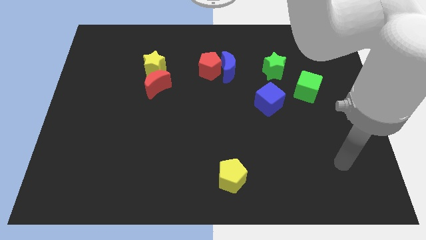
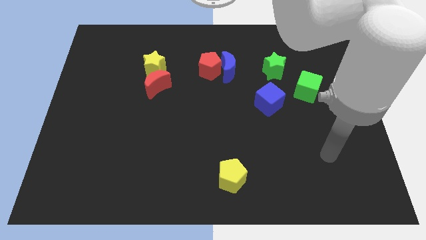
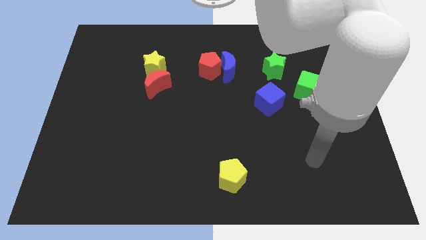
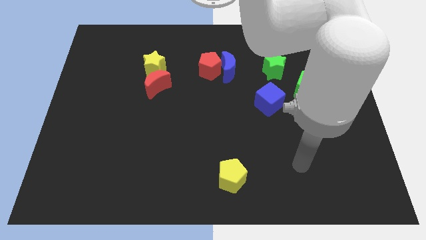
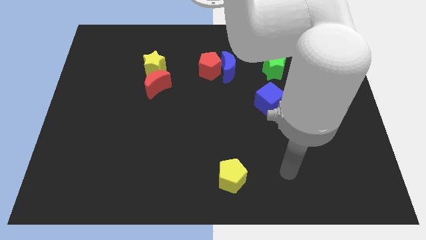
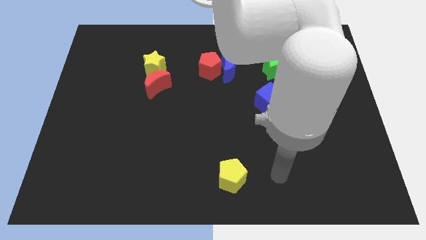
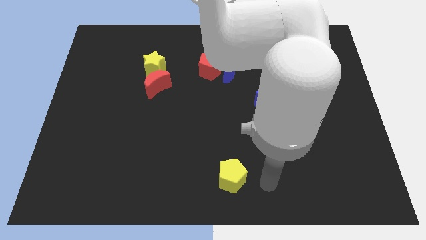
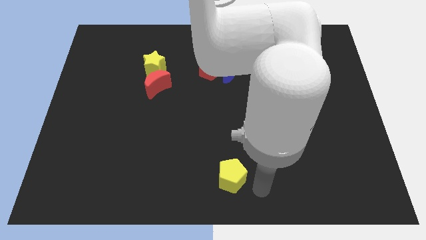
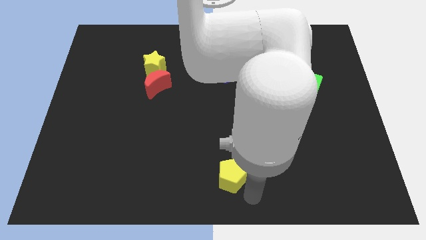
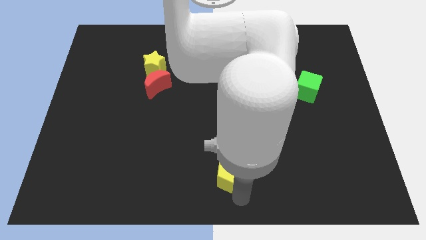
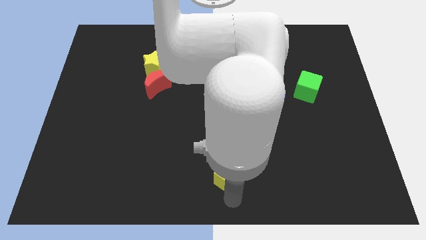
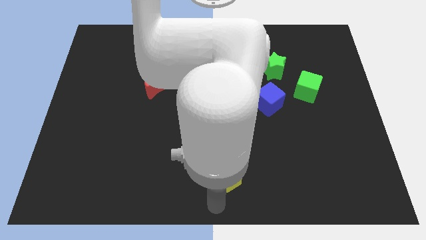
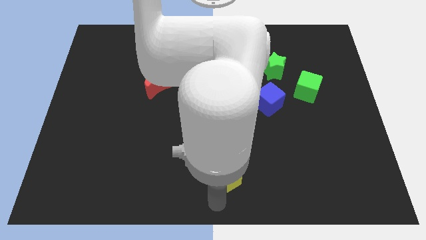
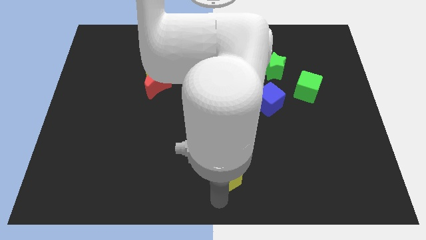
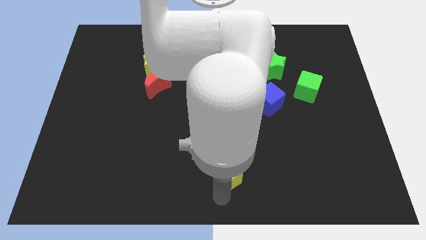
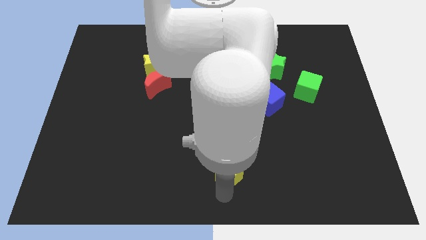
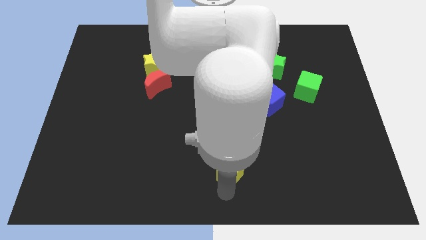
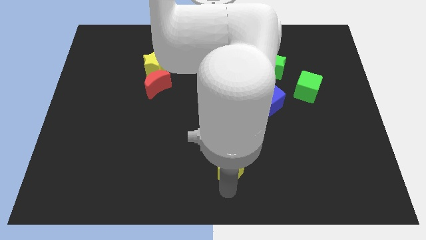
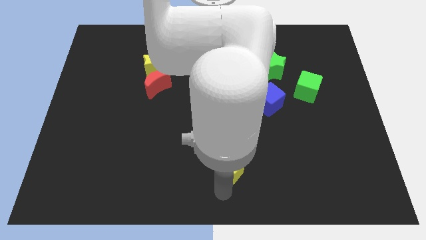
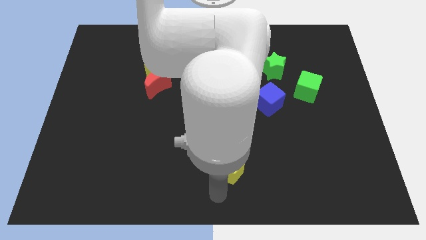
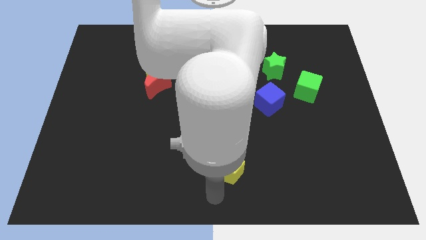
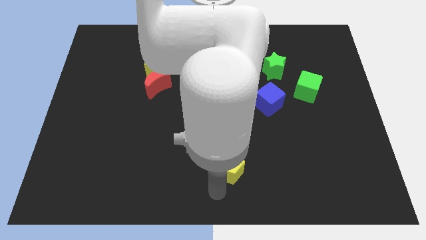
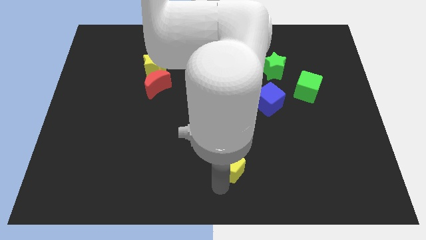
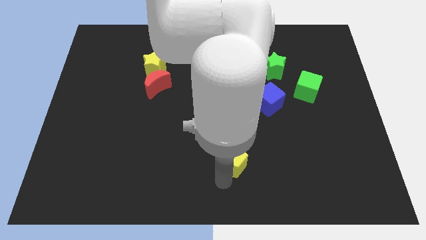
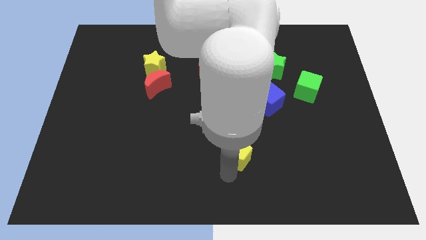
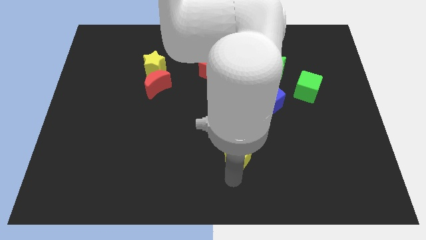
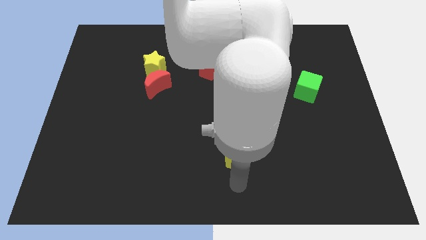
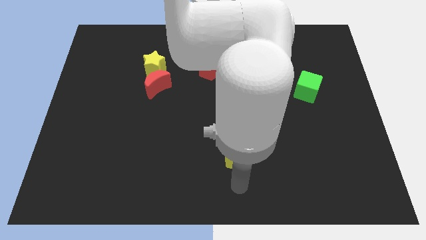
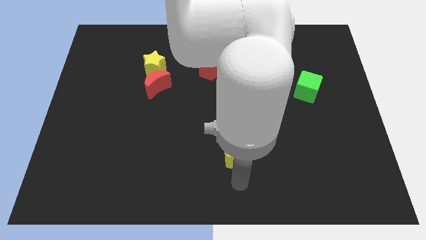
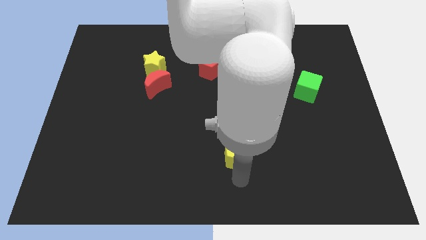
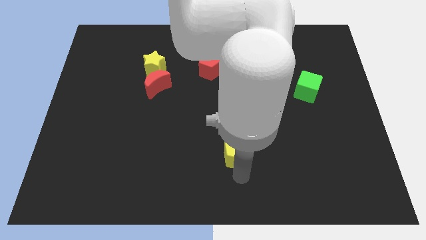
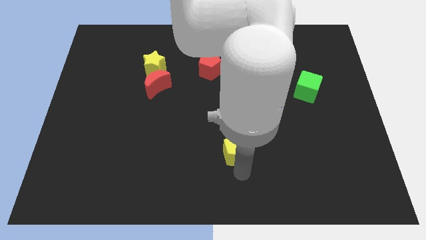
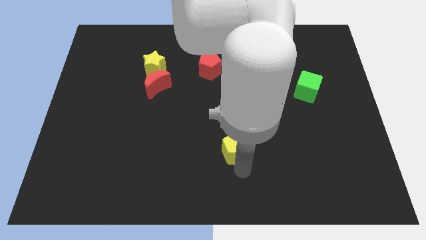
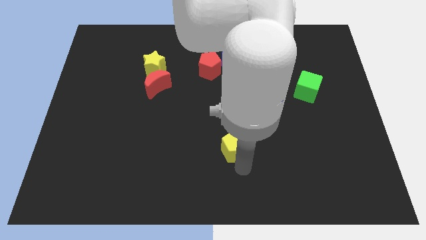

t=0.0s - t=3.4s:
slide the yellow pentagon up a bit

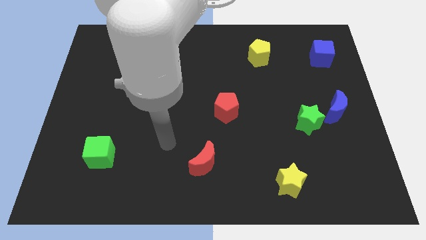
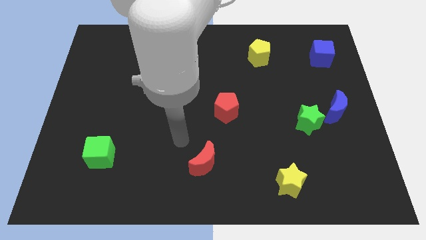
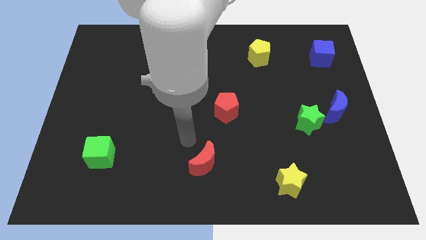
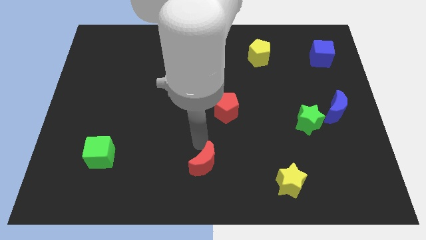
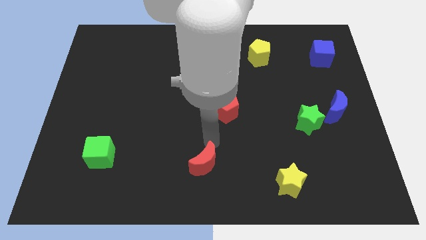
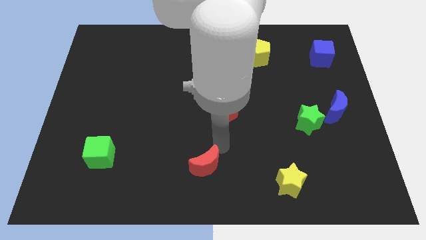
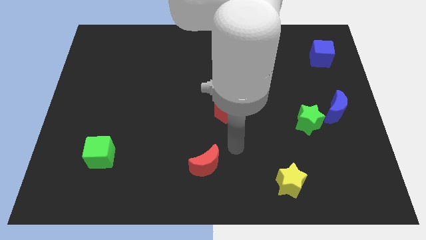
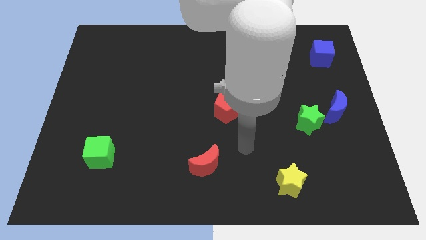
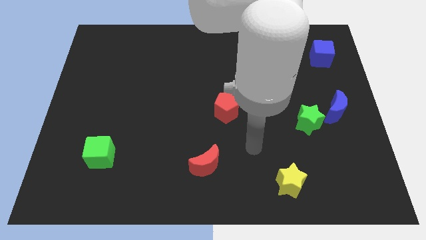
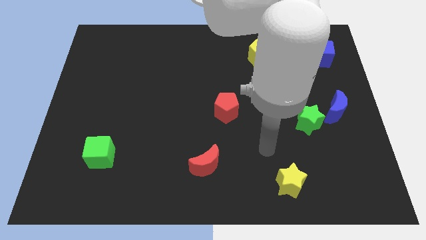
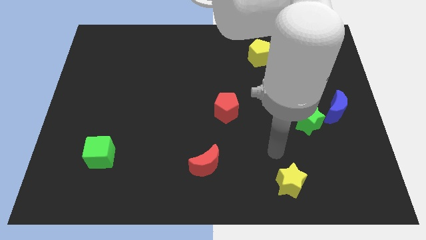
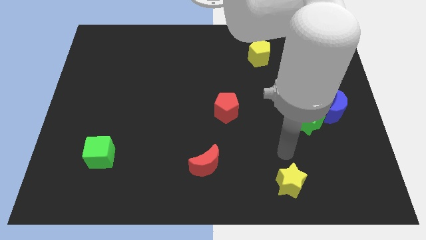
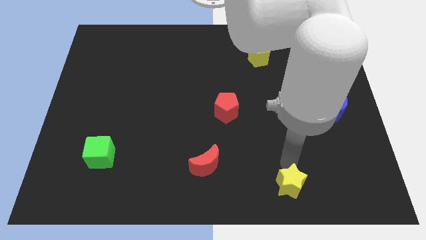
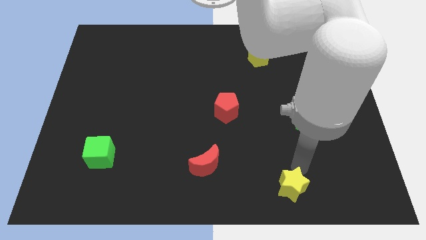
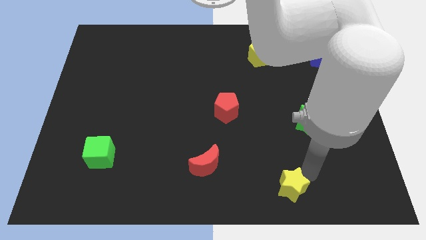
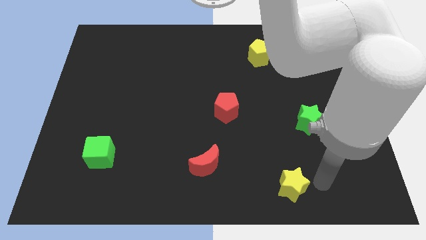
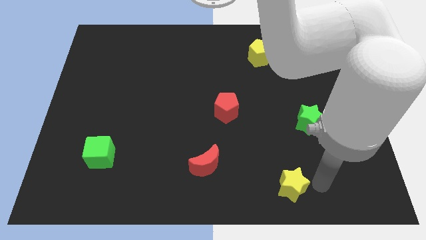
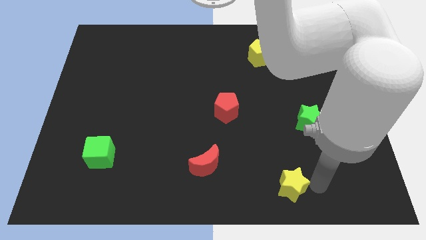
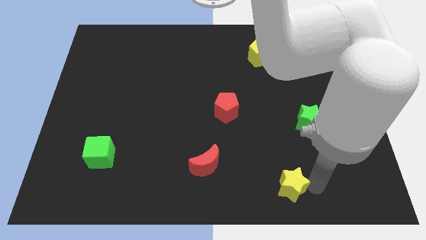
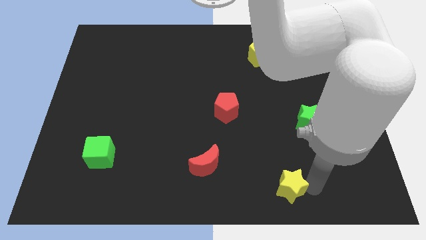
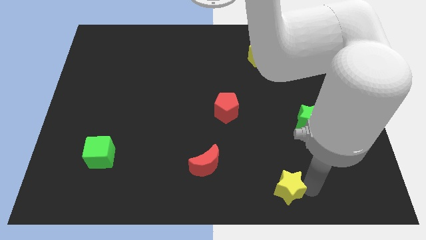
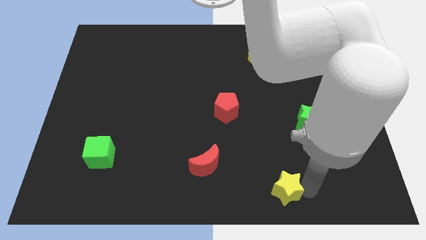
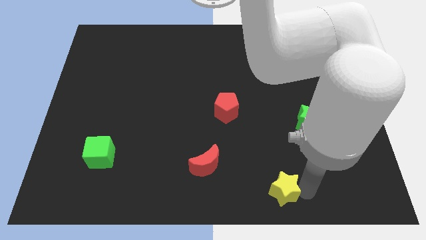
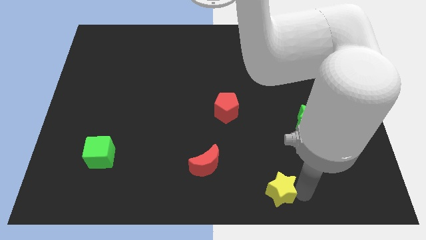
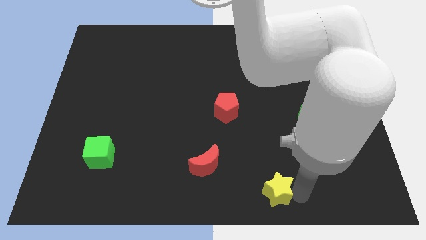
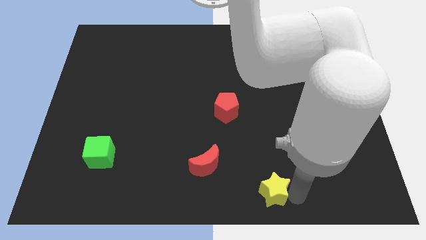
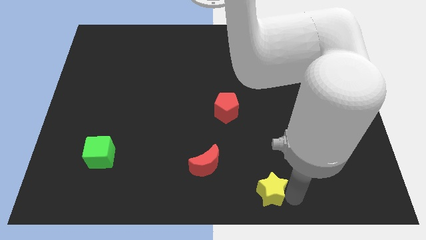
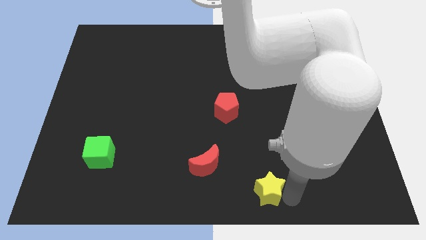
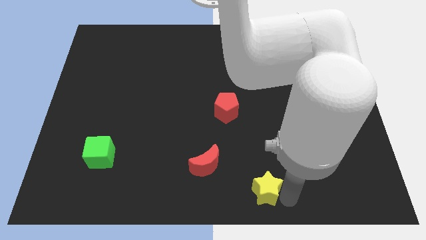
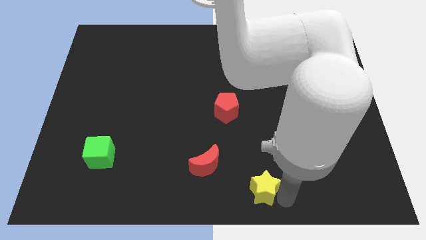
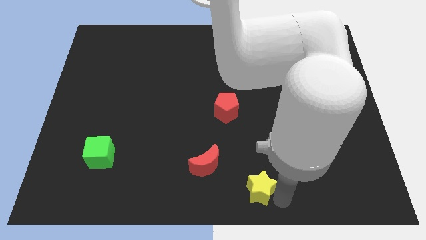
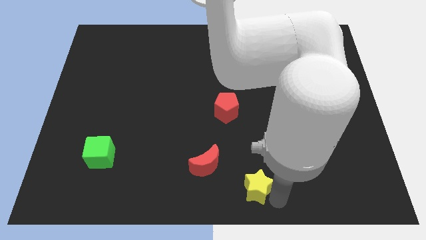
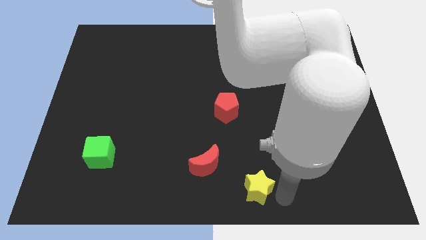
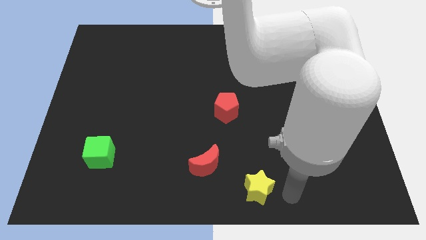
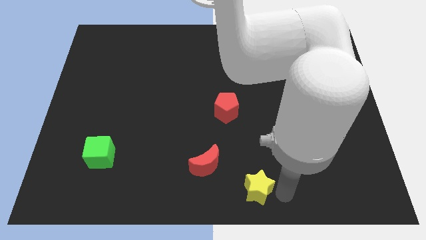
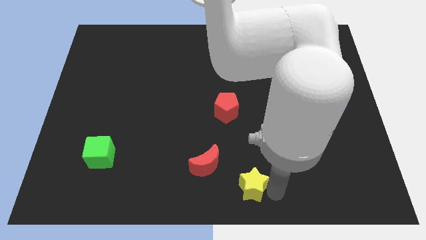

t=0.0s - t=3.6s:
slide the yellow star somewhat left

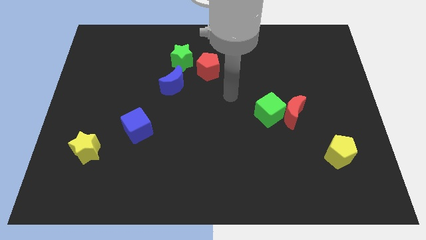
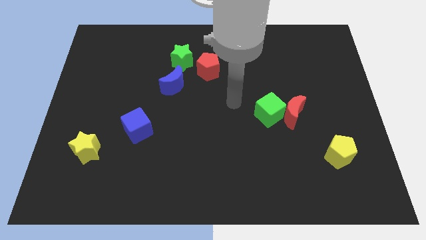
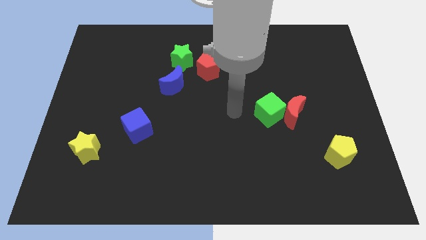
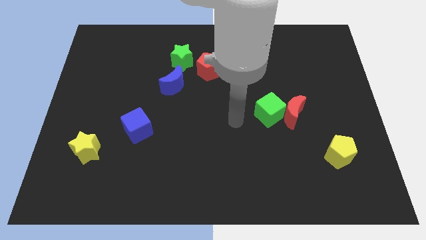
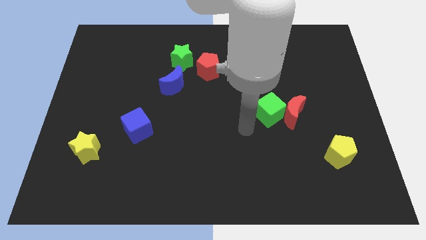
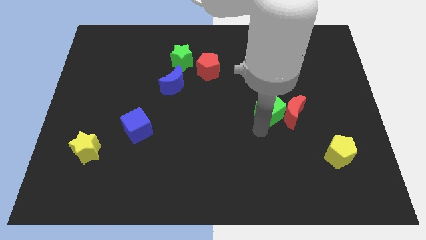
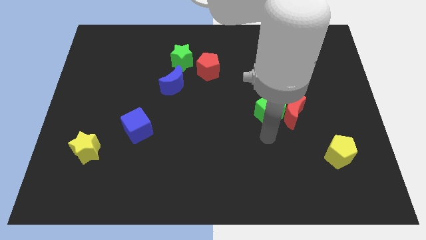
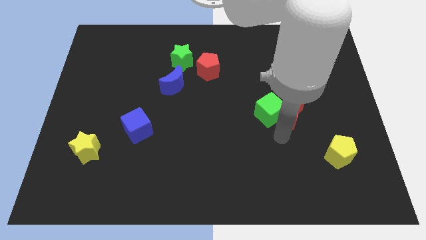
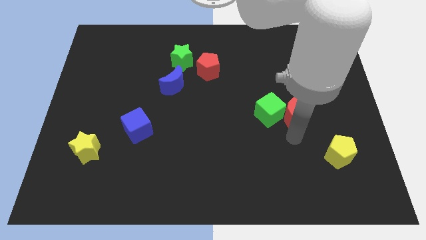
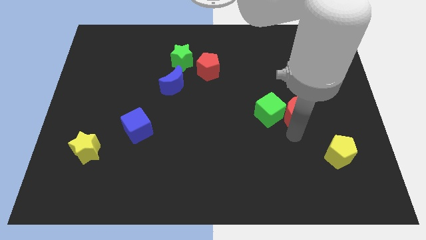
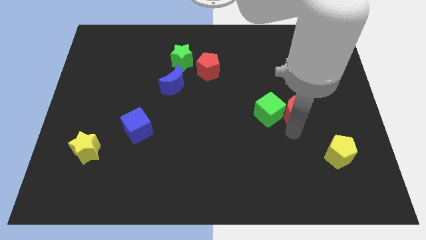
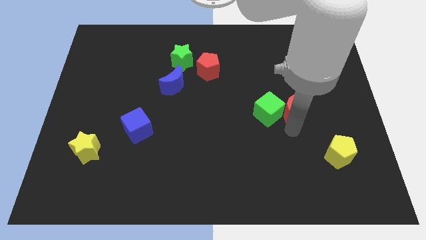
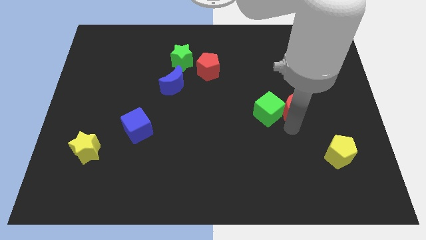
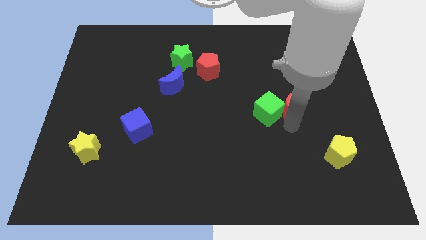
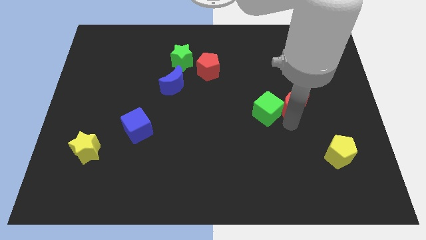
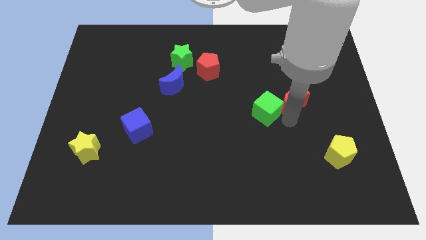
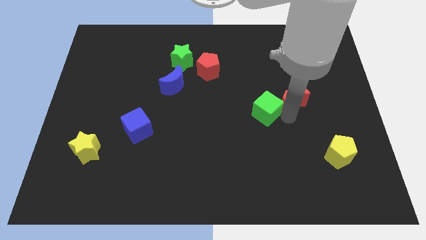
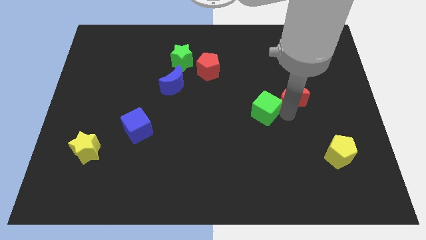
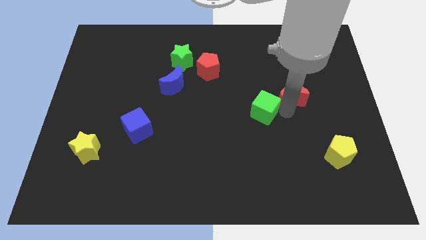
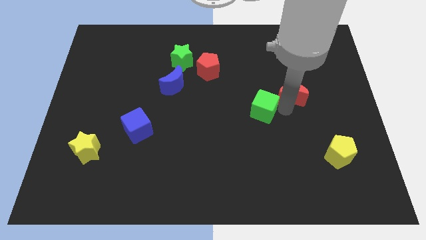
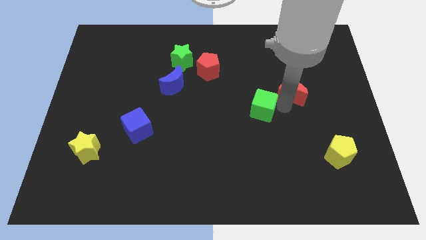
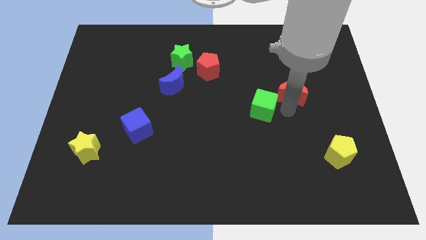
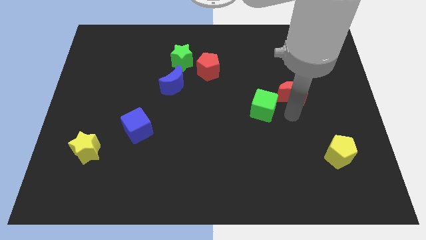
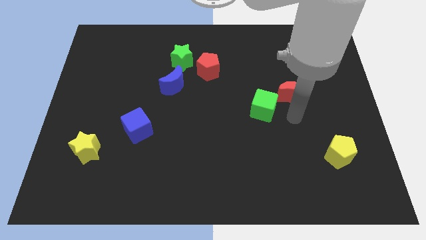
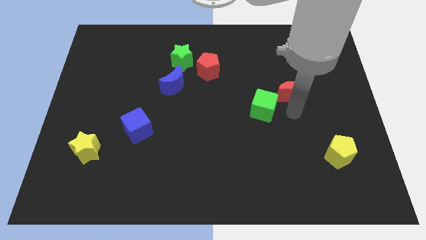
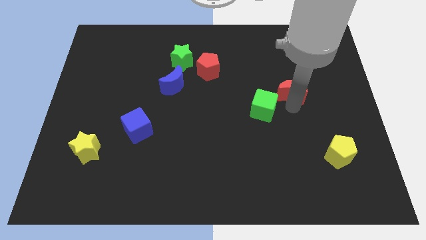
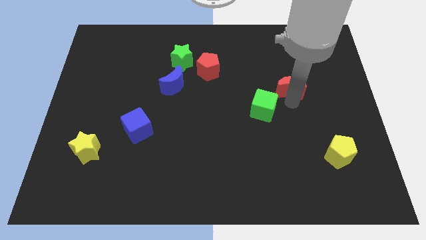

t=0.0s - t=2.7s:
push the red moon up somewhat
